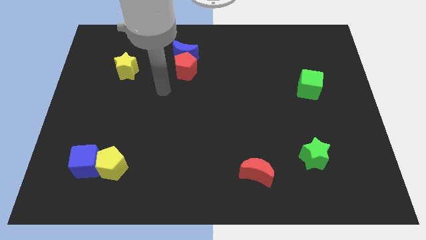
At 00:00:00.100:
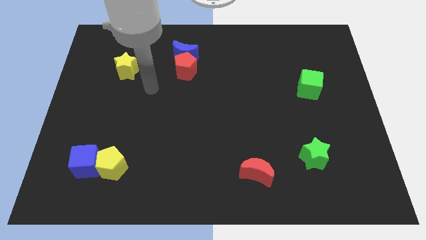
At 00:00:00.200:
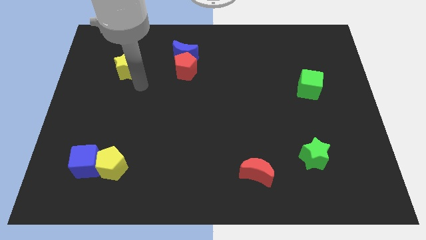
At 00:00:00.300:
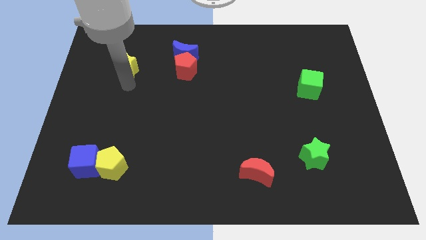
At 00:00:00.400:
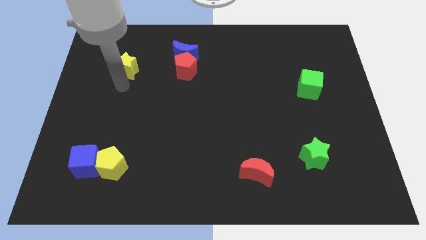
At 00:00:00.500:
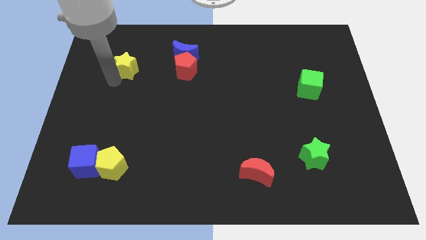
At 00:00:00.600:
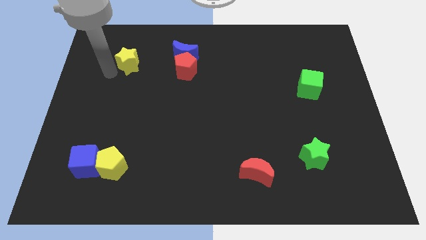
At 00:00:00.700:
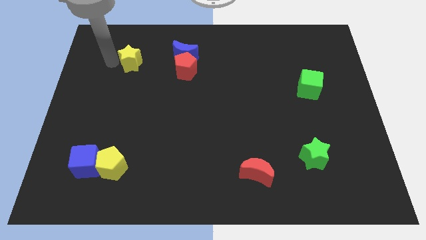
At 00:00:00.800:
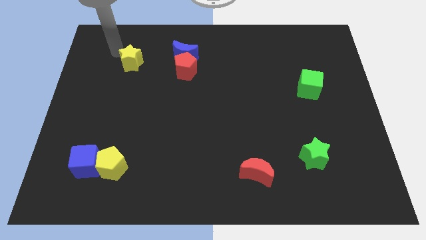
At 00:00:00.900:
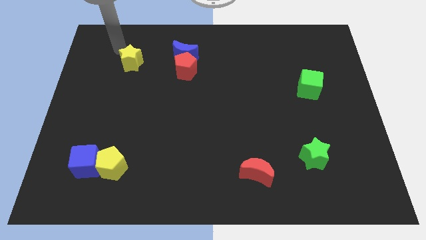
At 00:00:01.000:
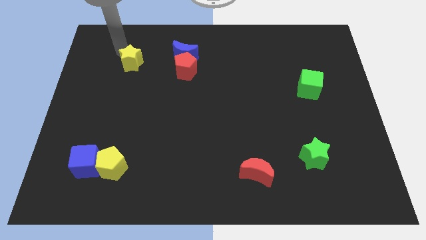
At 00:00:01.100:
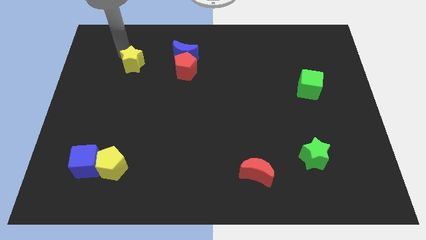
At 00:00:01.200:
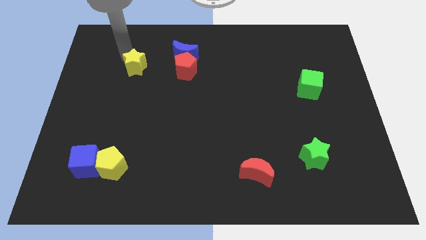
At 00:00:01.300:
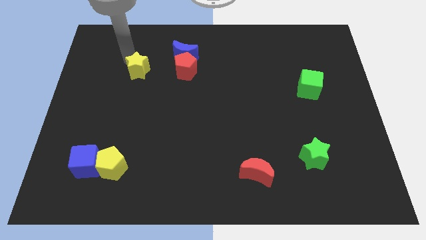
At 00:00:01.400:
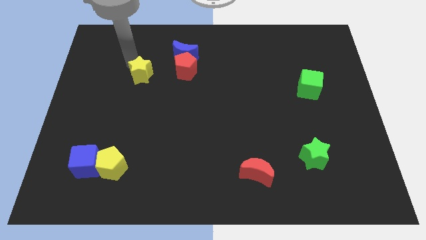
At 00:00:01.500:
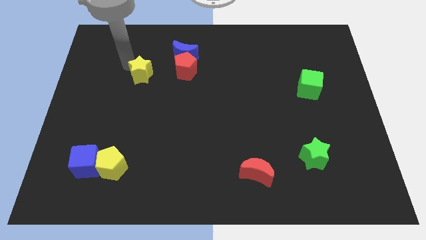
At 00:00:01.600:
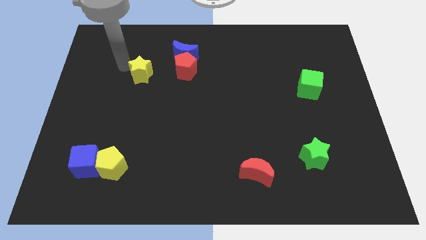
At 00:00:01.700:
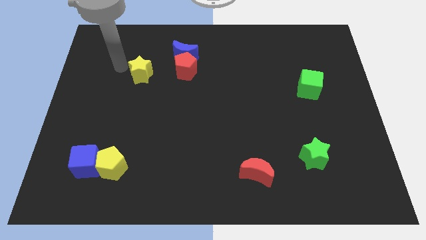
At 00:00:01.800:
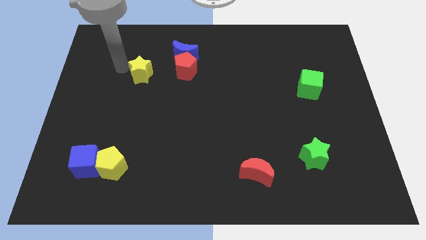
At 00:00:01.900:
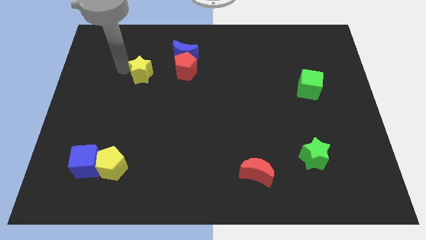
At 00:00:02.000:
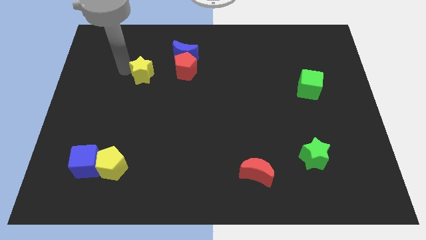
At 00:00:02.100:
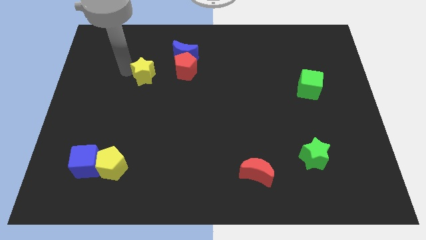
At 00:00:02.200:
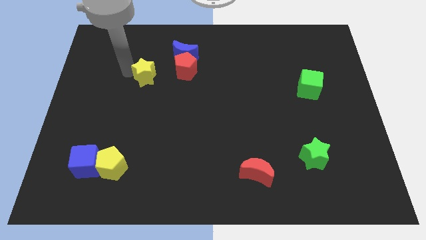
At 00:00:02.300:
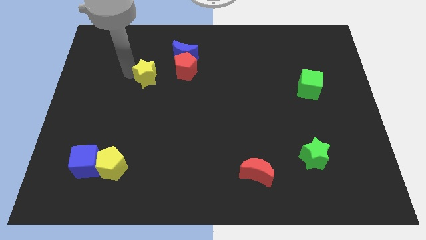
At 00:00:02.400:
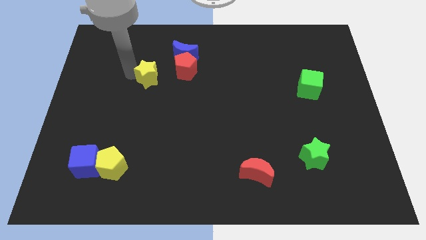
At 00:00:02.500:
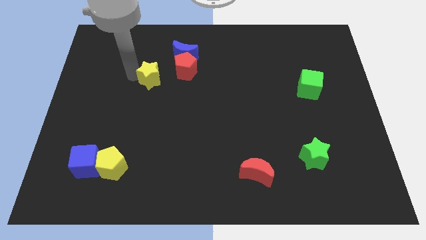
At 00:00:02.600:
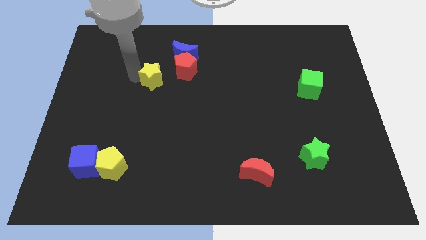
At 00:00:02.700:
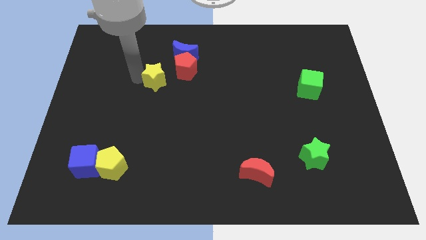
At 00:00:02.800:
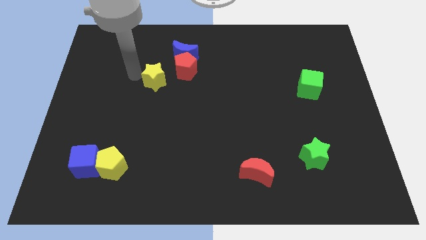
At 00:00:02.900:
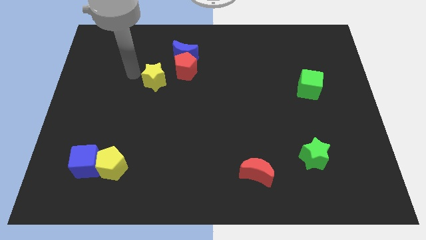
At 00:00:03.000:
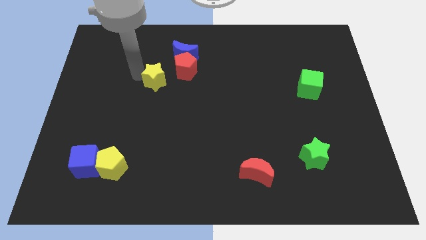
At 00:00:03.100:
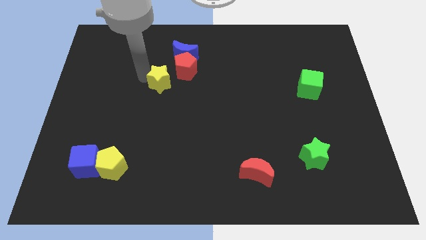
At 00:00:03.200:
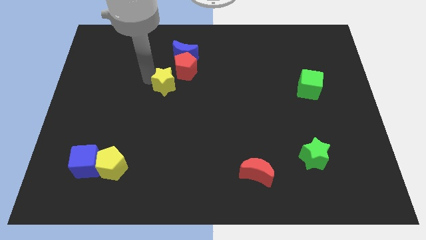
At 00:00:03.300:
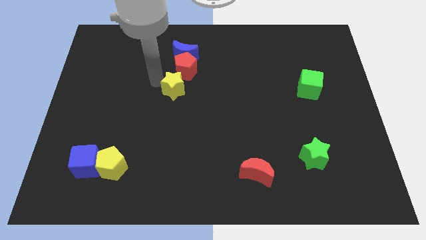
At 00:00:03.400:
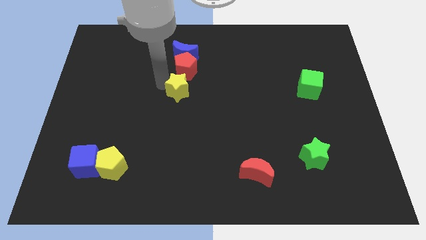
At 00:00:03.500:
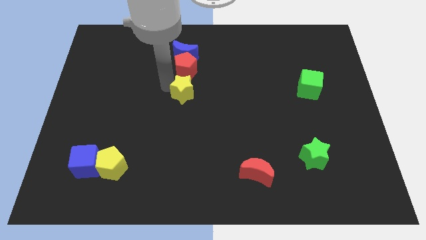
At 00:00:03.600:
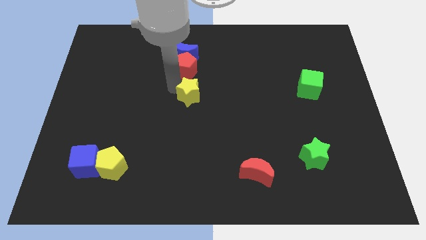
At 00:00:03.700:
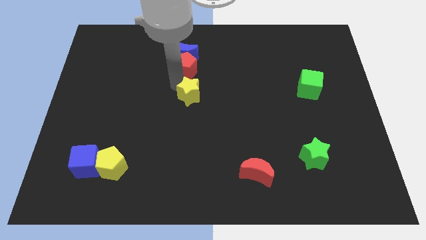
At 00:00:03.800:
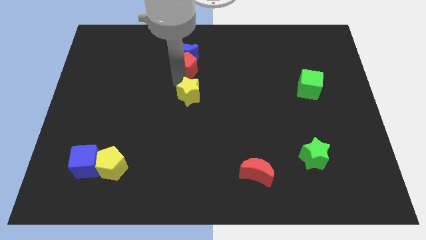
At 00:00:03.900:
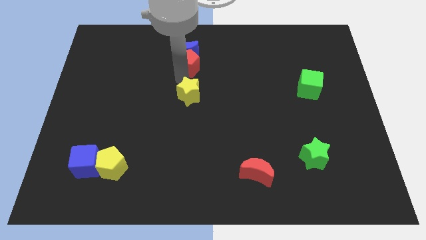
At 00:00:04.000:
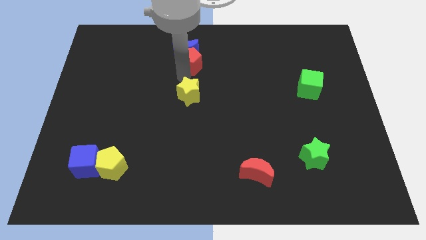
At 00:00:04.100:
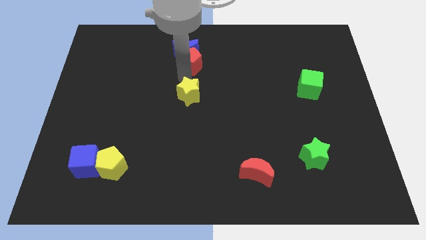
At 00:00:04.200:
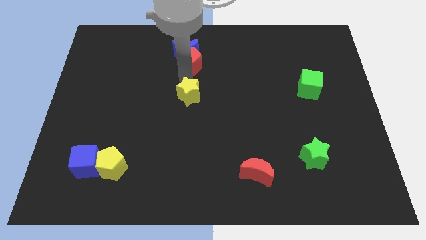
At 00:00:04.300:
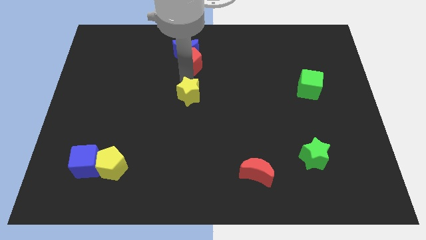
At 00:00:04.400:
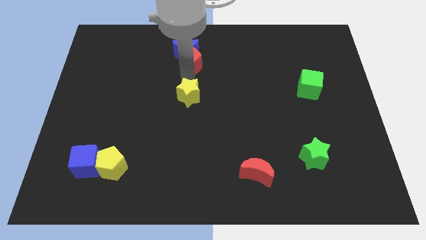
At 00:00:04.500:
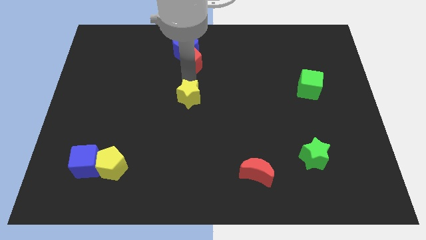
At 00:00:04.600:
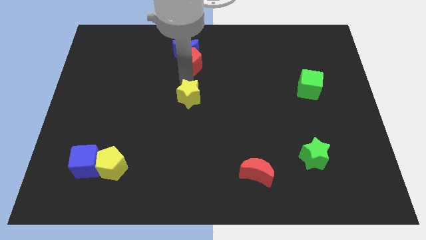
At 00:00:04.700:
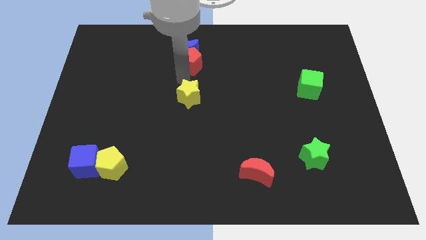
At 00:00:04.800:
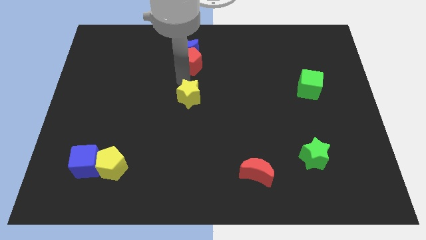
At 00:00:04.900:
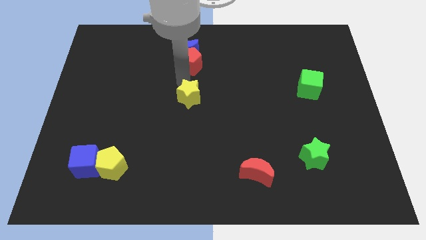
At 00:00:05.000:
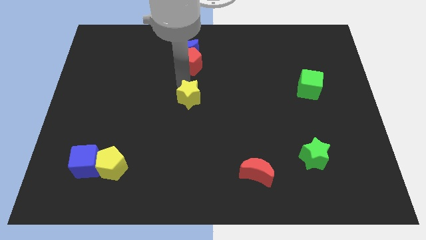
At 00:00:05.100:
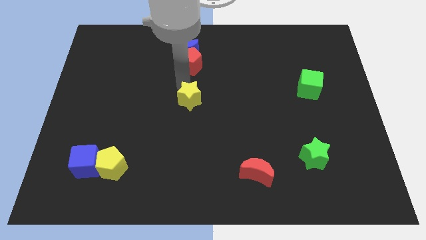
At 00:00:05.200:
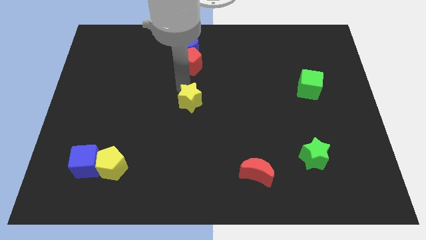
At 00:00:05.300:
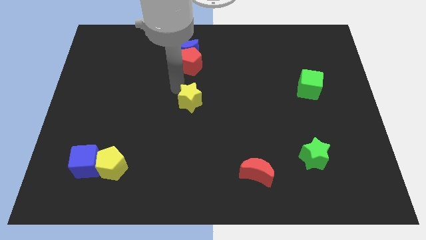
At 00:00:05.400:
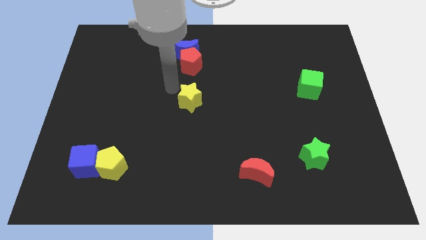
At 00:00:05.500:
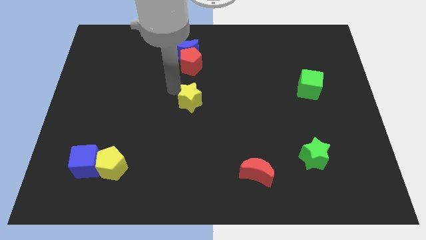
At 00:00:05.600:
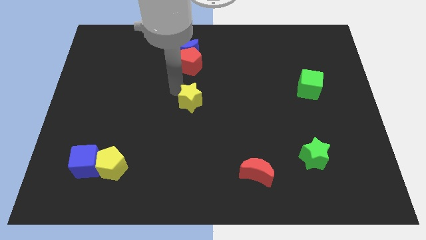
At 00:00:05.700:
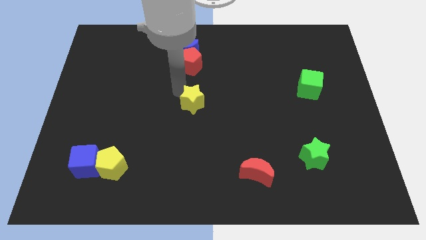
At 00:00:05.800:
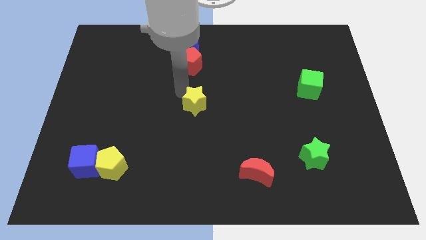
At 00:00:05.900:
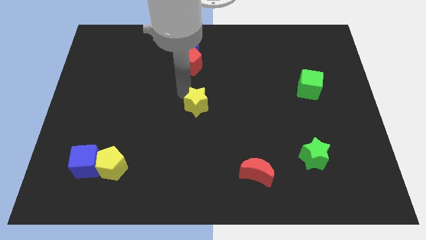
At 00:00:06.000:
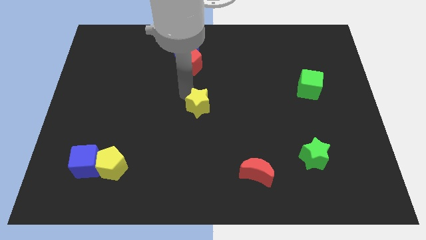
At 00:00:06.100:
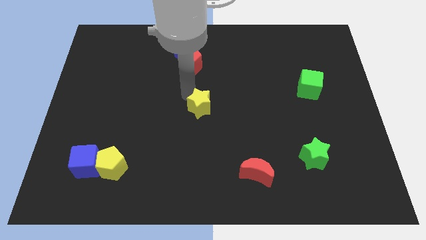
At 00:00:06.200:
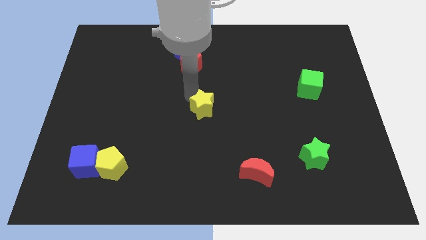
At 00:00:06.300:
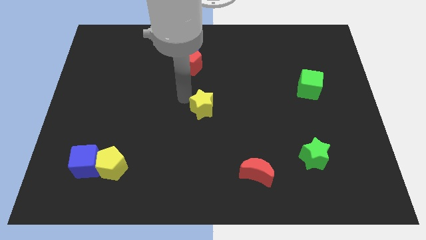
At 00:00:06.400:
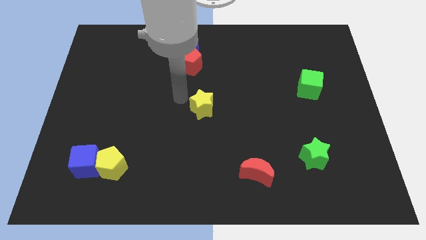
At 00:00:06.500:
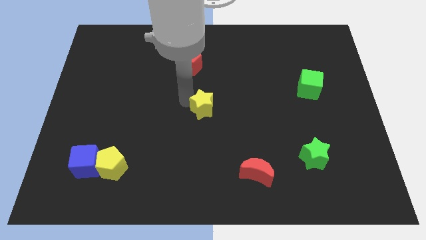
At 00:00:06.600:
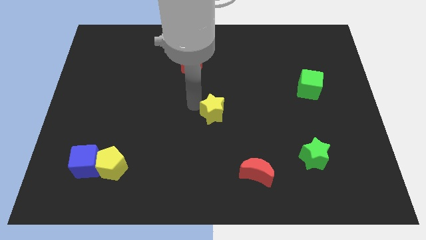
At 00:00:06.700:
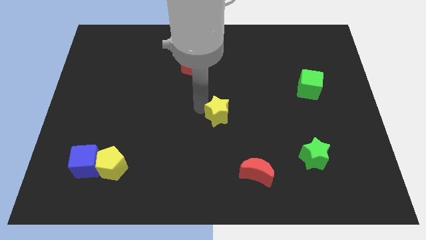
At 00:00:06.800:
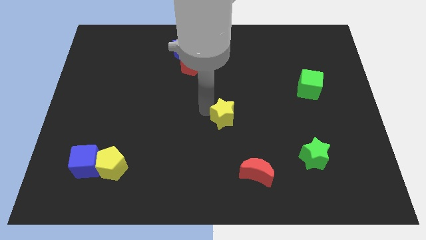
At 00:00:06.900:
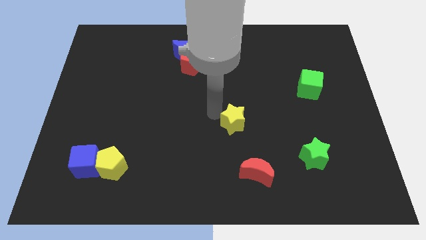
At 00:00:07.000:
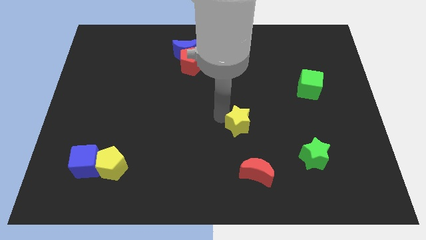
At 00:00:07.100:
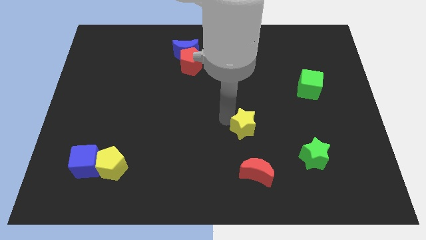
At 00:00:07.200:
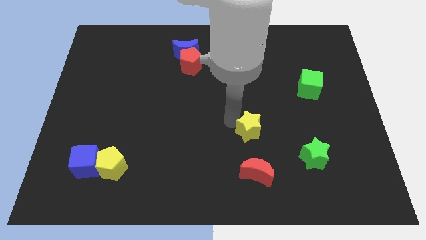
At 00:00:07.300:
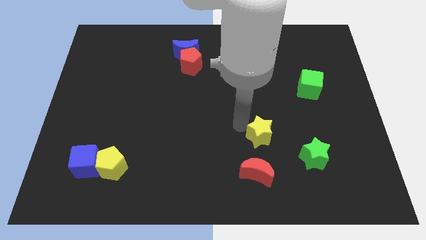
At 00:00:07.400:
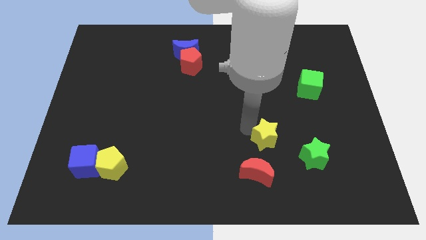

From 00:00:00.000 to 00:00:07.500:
slide the yellow star to the top right side of the red moon

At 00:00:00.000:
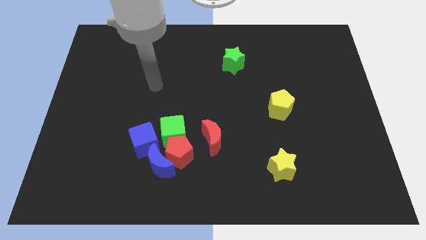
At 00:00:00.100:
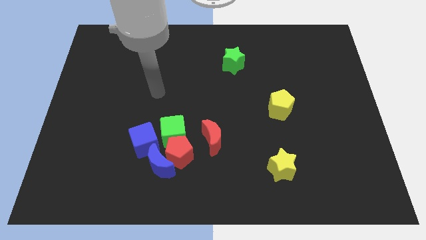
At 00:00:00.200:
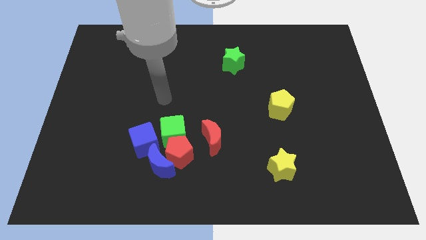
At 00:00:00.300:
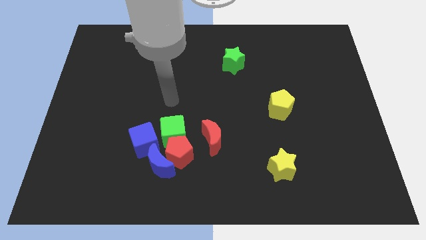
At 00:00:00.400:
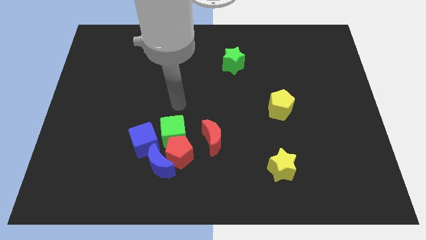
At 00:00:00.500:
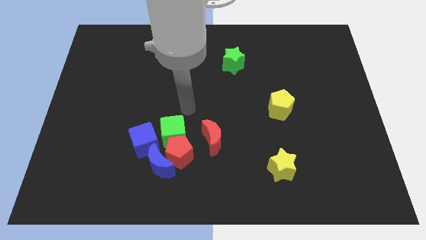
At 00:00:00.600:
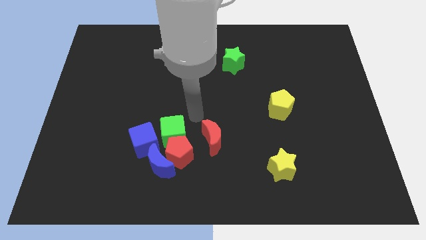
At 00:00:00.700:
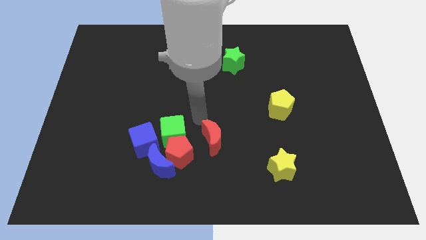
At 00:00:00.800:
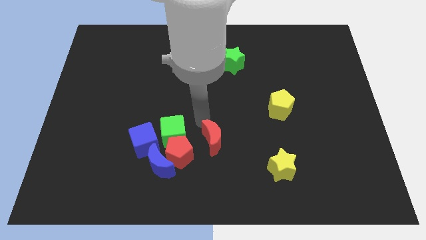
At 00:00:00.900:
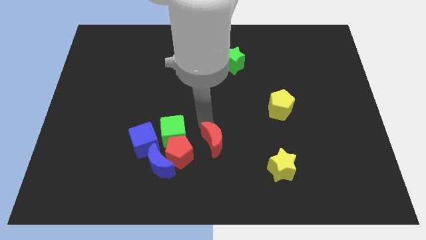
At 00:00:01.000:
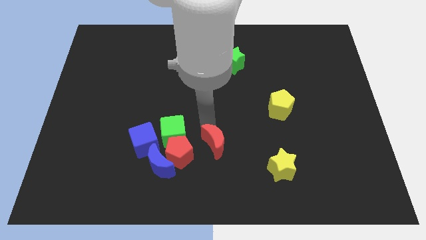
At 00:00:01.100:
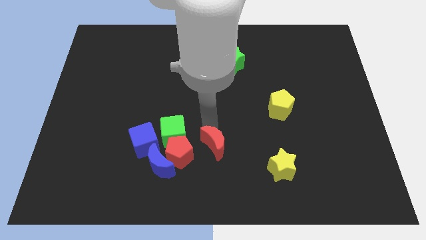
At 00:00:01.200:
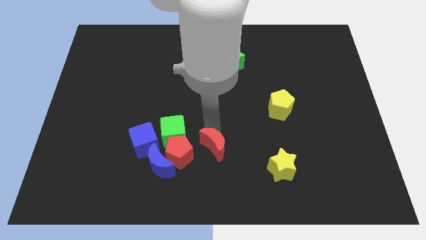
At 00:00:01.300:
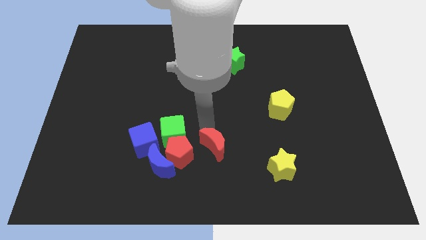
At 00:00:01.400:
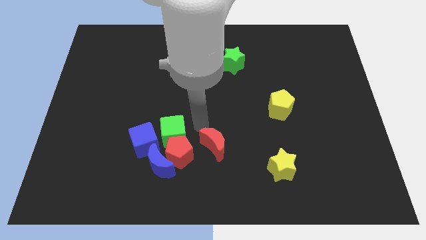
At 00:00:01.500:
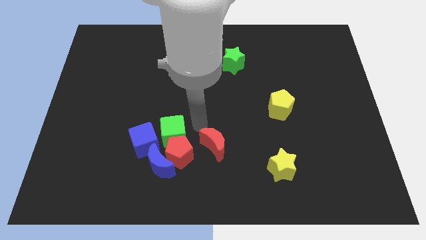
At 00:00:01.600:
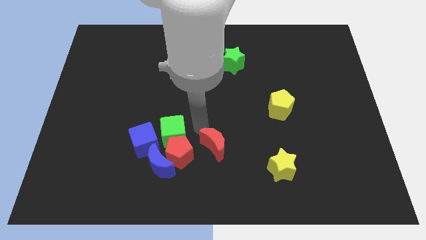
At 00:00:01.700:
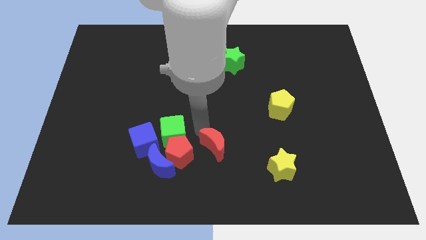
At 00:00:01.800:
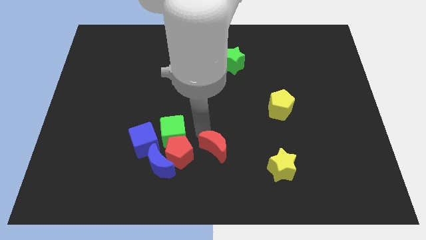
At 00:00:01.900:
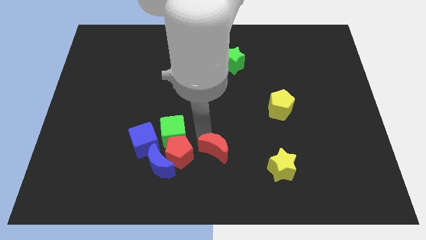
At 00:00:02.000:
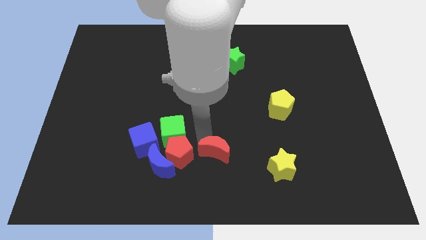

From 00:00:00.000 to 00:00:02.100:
move the red moon just left of the yellow star
